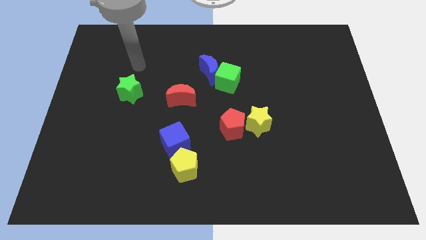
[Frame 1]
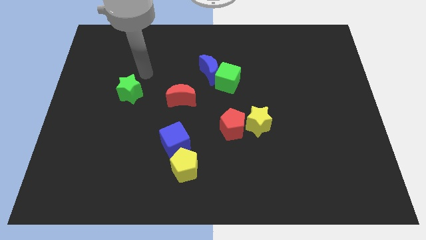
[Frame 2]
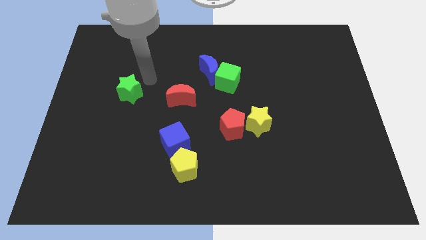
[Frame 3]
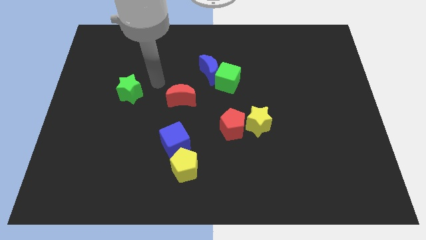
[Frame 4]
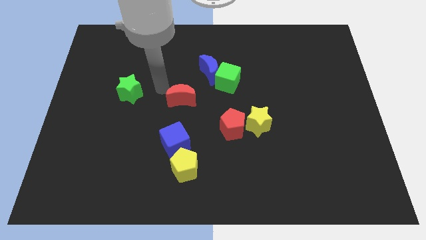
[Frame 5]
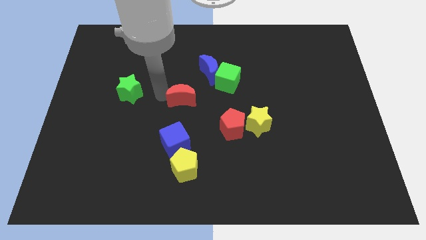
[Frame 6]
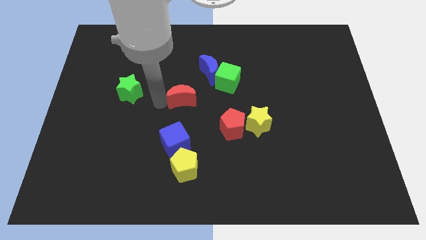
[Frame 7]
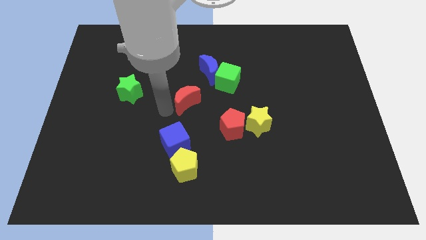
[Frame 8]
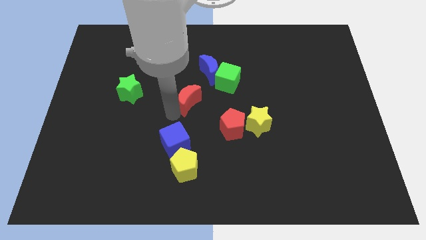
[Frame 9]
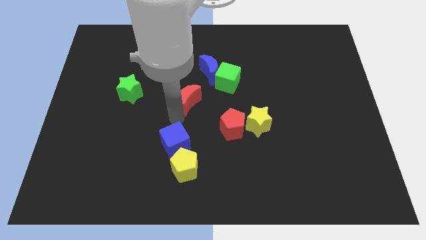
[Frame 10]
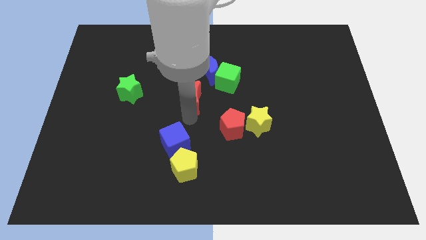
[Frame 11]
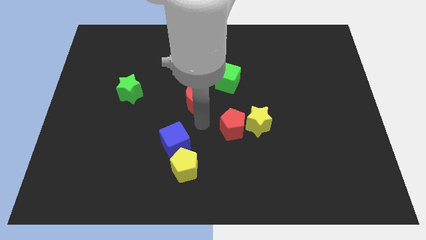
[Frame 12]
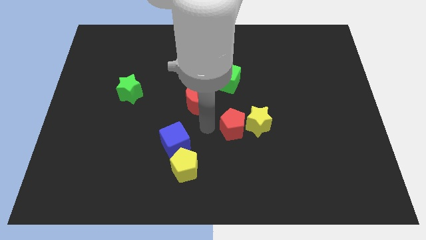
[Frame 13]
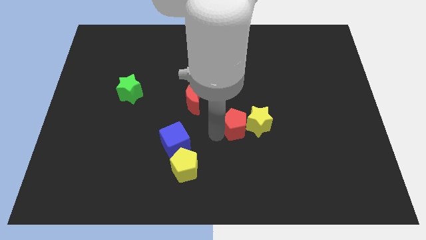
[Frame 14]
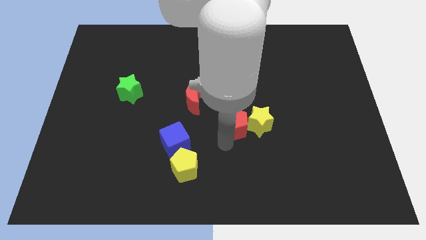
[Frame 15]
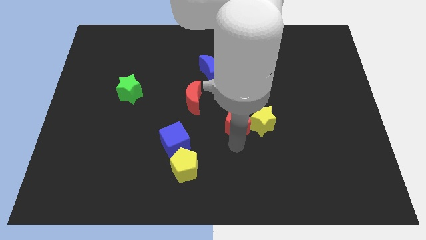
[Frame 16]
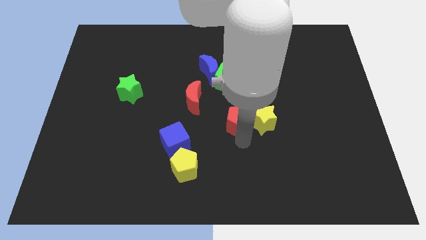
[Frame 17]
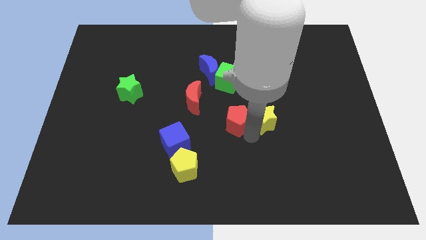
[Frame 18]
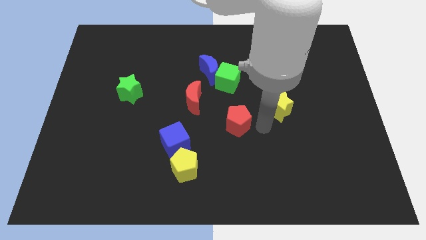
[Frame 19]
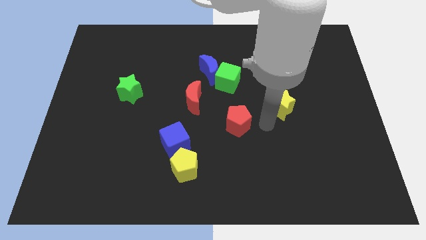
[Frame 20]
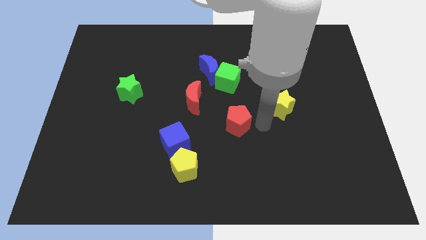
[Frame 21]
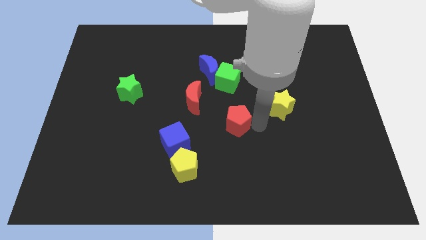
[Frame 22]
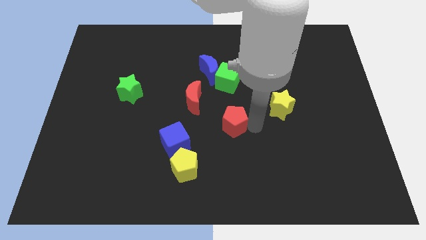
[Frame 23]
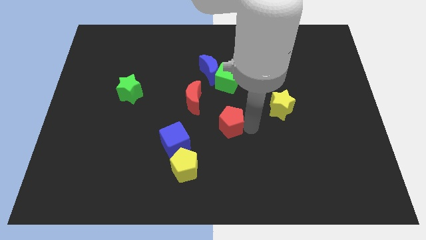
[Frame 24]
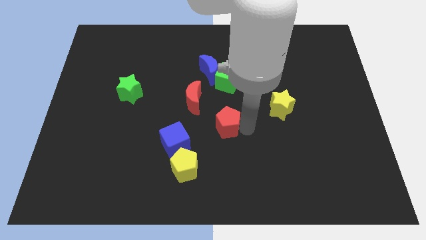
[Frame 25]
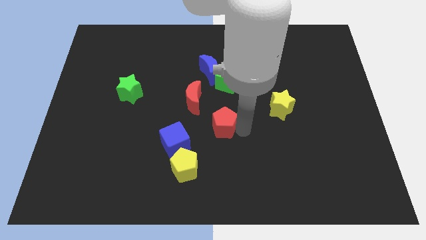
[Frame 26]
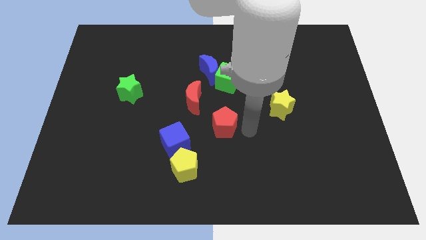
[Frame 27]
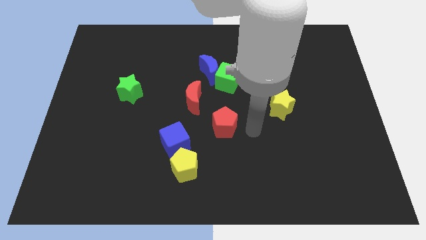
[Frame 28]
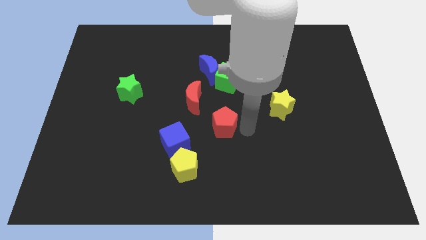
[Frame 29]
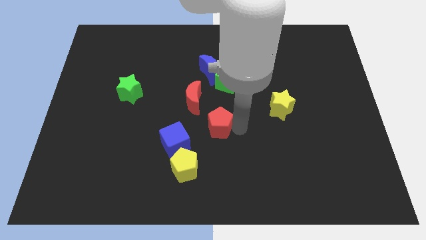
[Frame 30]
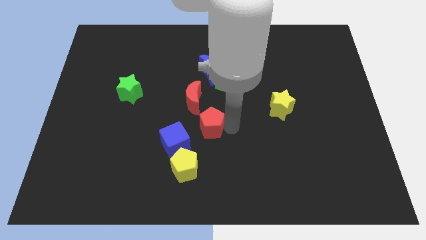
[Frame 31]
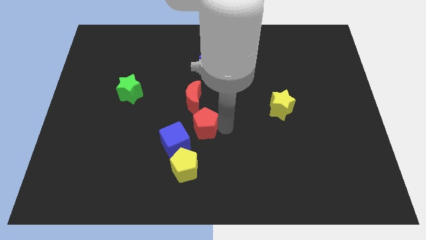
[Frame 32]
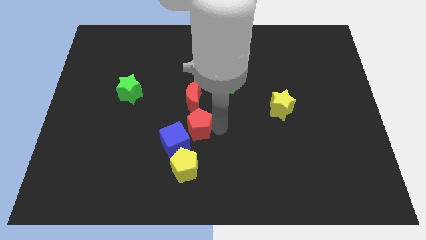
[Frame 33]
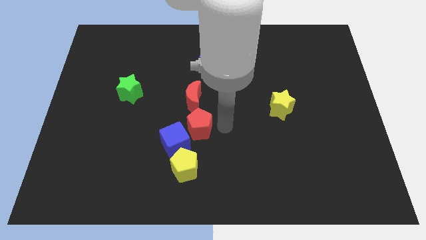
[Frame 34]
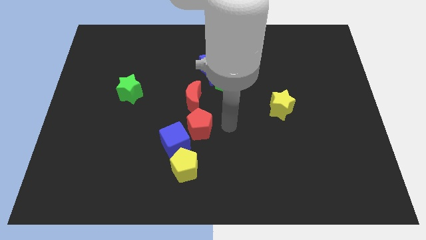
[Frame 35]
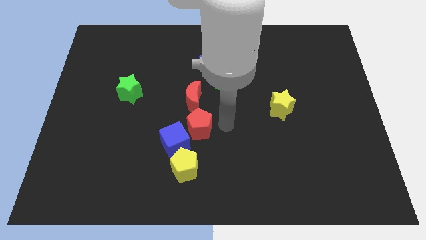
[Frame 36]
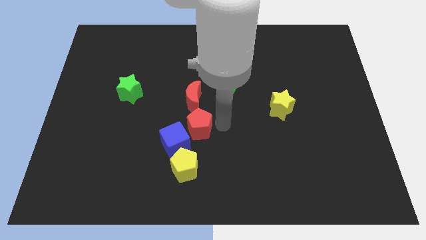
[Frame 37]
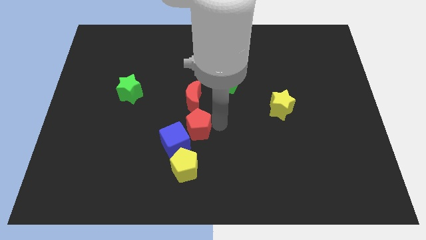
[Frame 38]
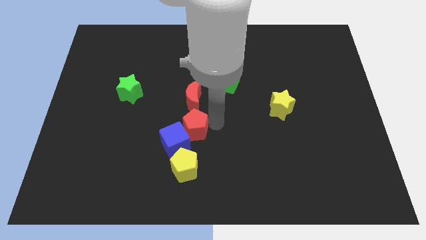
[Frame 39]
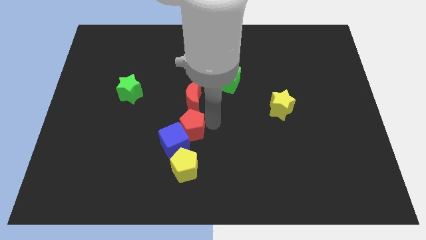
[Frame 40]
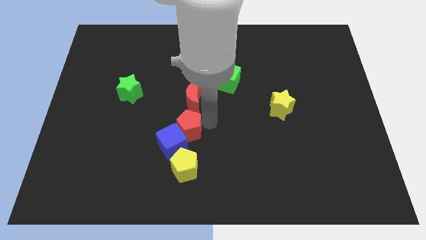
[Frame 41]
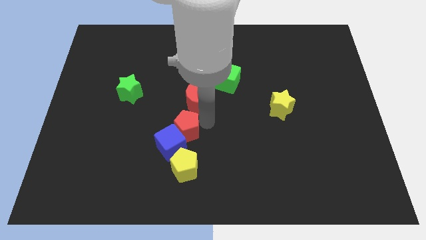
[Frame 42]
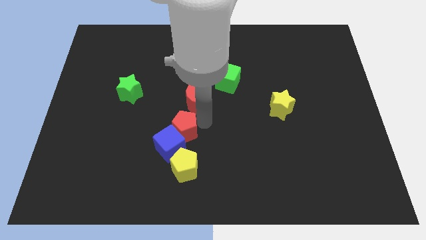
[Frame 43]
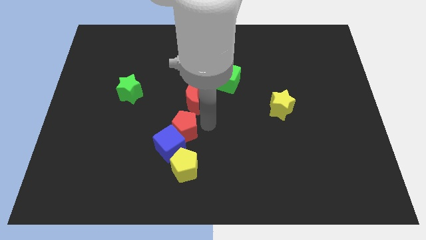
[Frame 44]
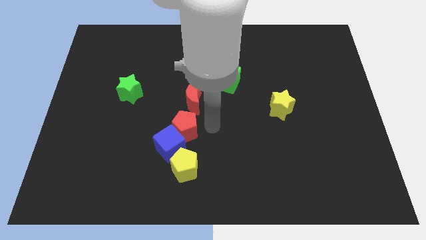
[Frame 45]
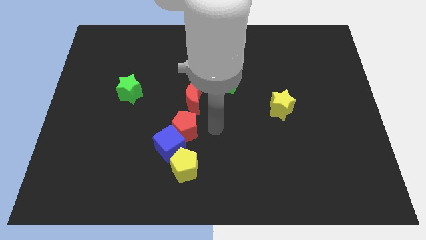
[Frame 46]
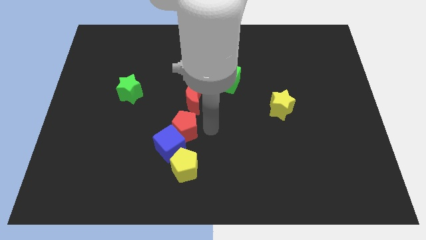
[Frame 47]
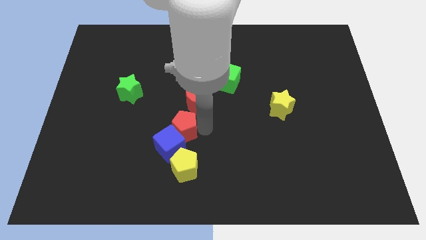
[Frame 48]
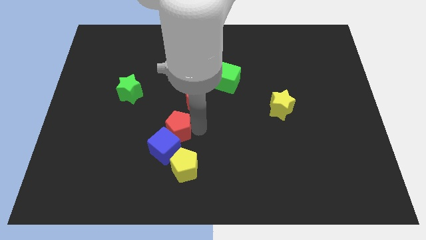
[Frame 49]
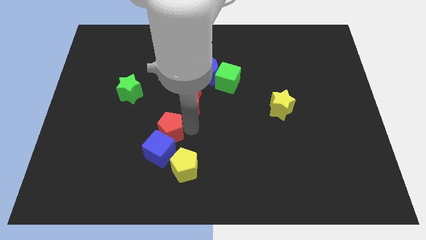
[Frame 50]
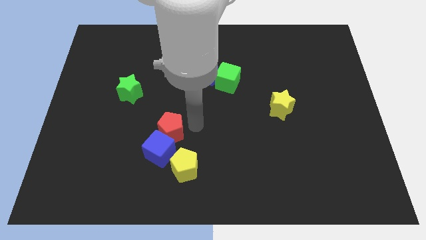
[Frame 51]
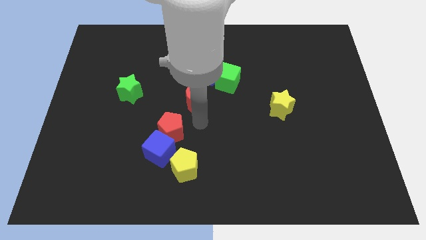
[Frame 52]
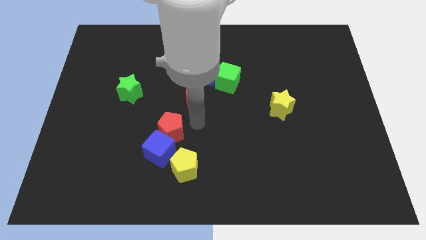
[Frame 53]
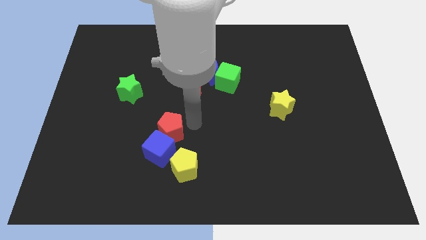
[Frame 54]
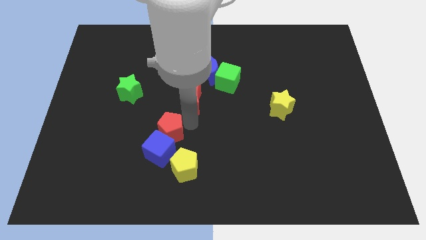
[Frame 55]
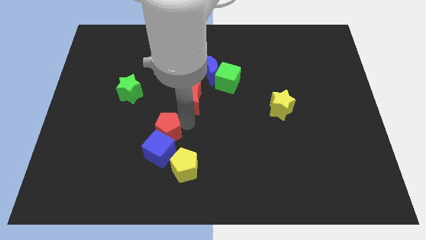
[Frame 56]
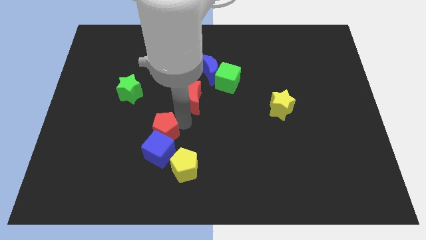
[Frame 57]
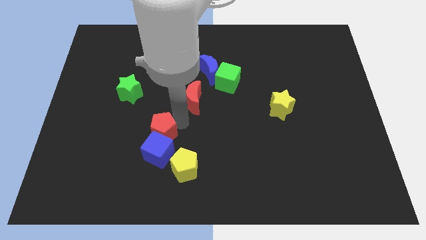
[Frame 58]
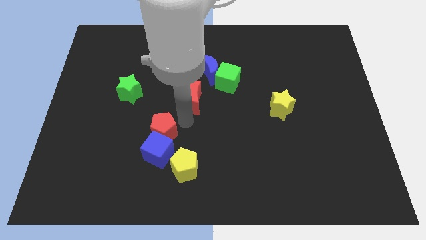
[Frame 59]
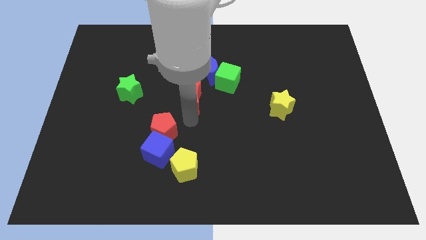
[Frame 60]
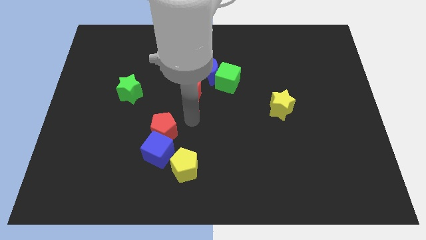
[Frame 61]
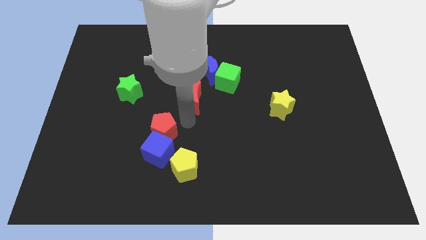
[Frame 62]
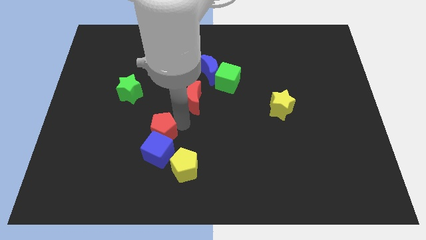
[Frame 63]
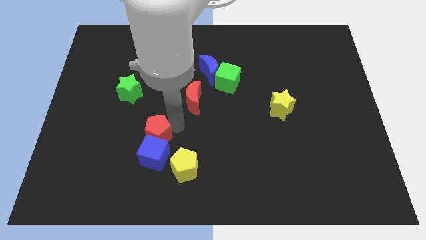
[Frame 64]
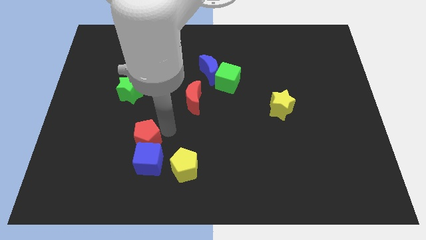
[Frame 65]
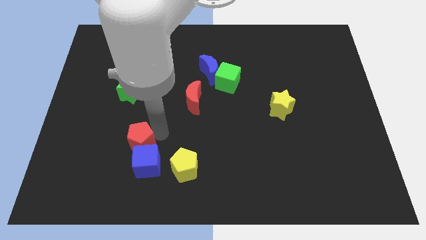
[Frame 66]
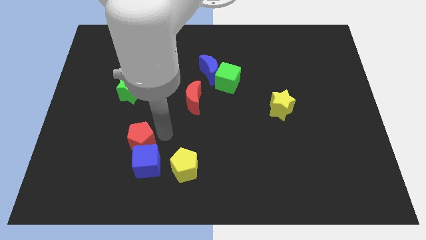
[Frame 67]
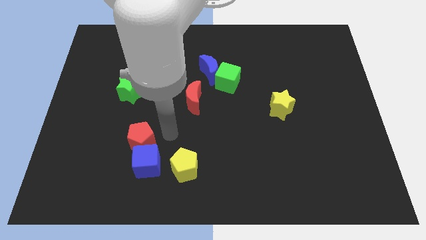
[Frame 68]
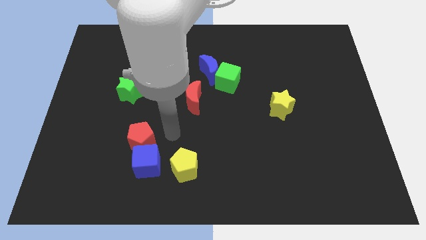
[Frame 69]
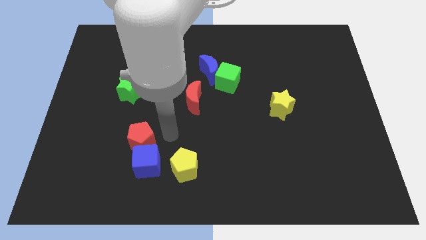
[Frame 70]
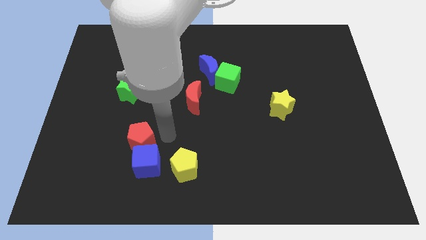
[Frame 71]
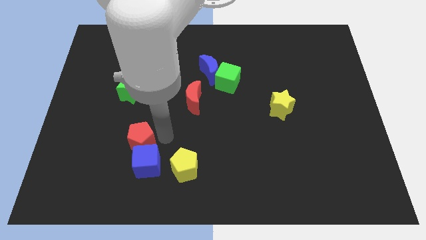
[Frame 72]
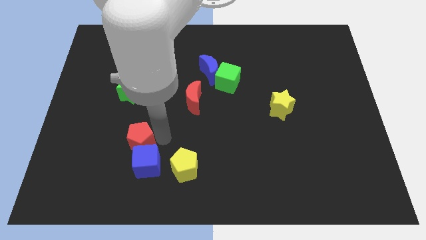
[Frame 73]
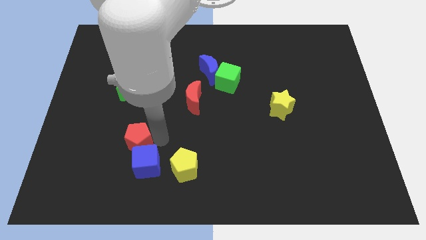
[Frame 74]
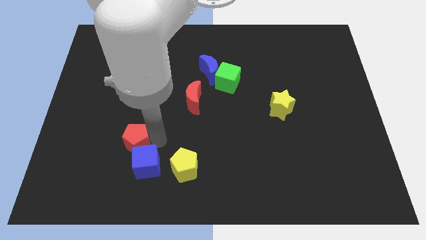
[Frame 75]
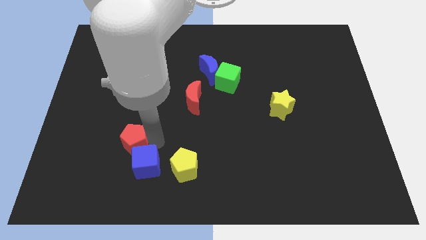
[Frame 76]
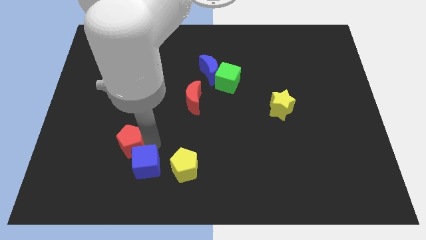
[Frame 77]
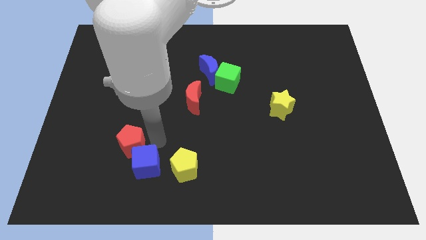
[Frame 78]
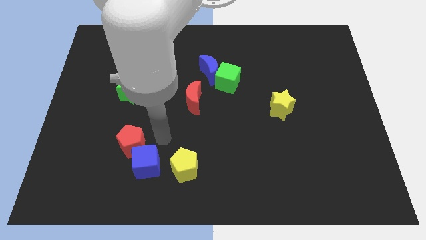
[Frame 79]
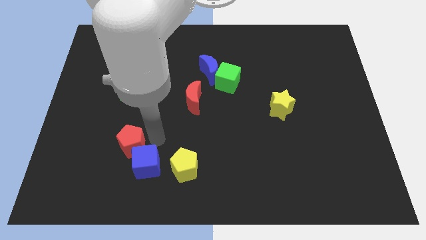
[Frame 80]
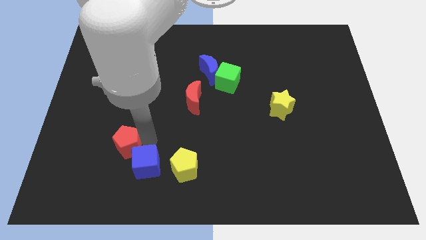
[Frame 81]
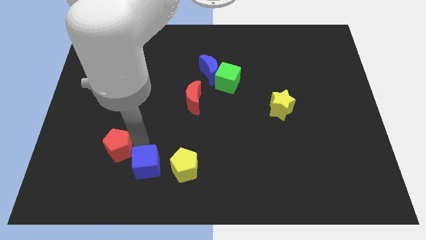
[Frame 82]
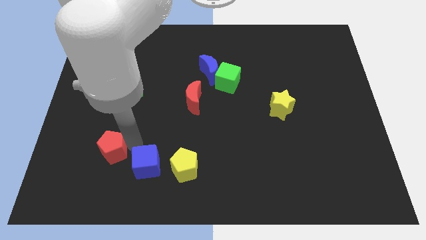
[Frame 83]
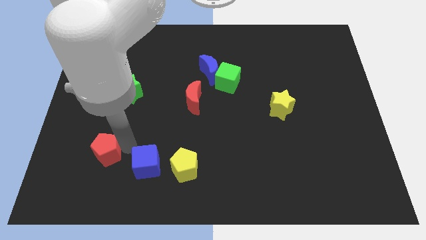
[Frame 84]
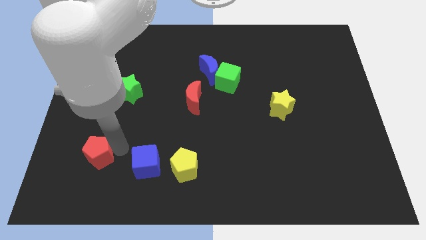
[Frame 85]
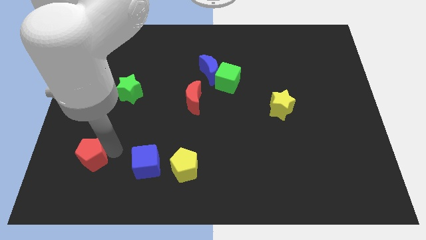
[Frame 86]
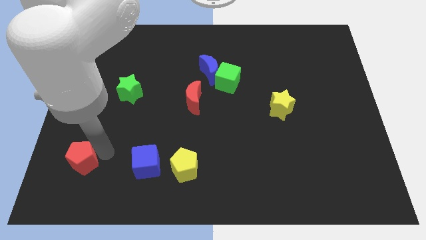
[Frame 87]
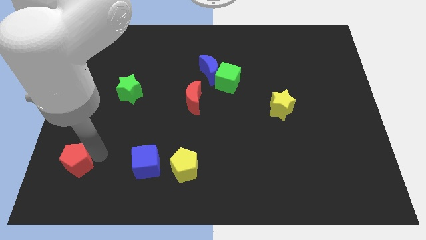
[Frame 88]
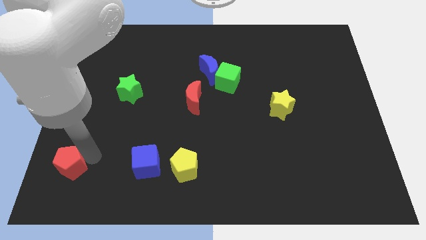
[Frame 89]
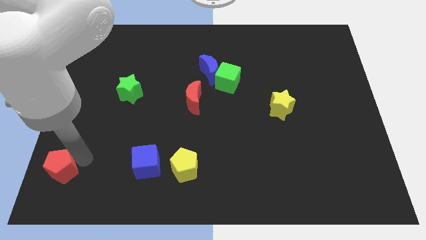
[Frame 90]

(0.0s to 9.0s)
move the red pentagon to the bottom left corner
